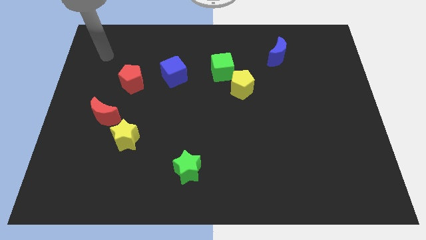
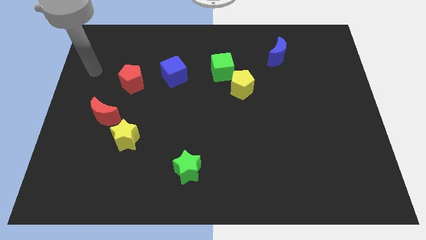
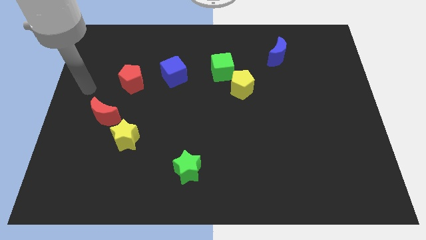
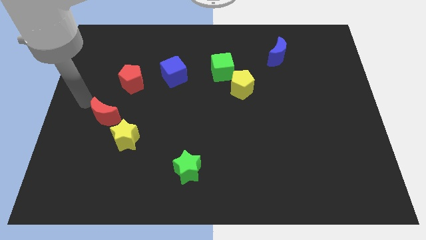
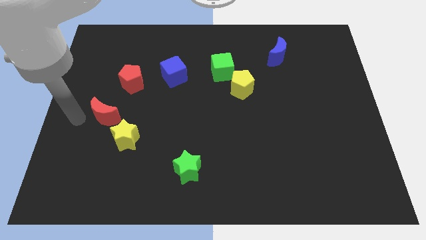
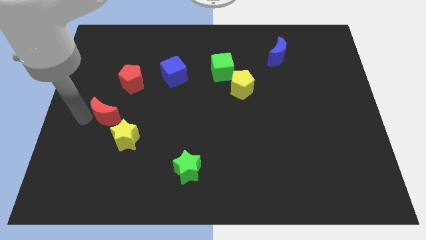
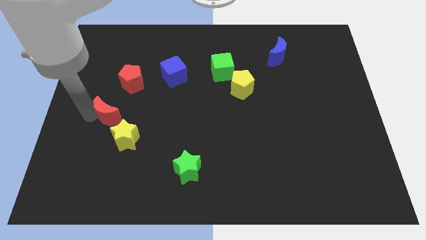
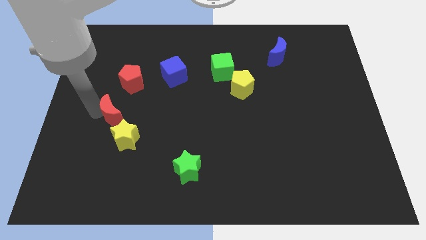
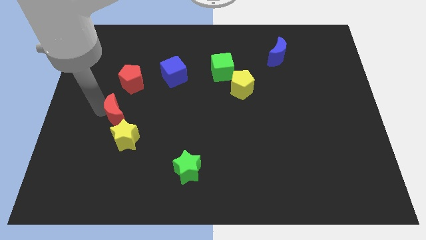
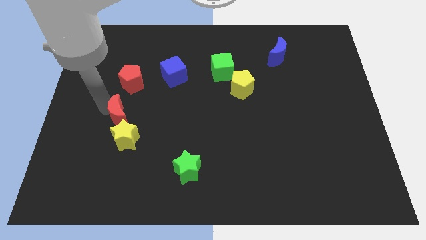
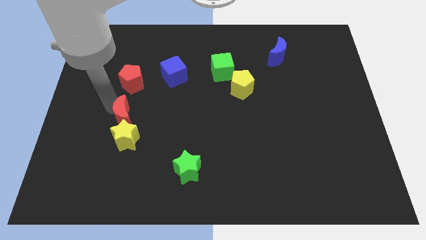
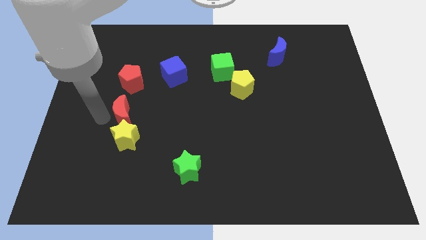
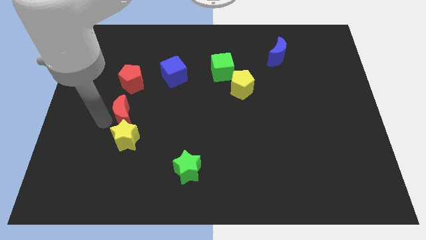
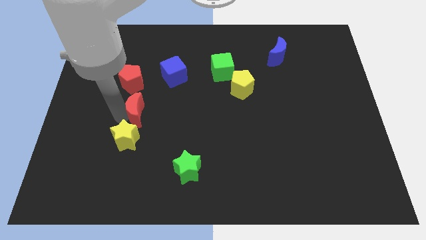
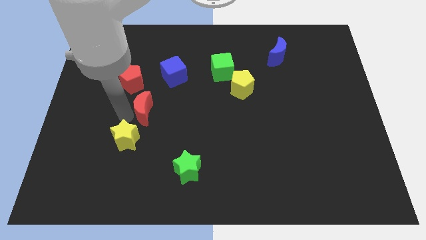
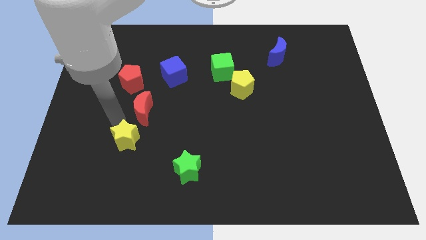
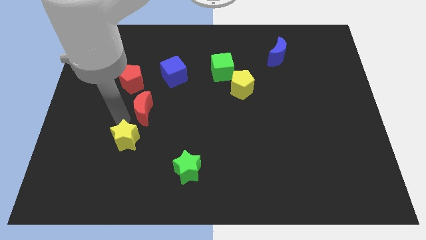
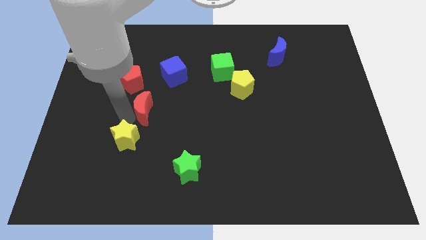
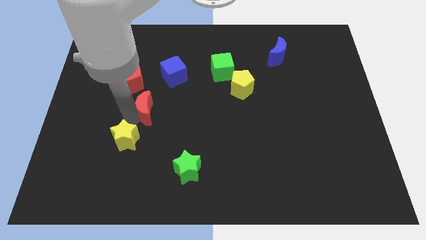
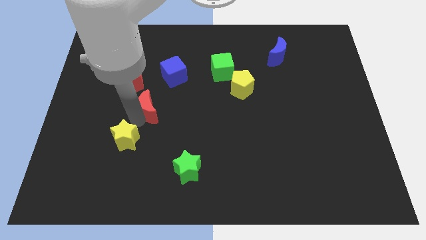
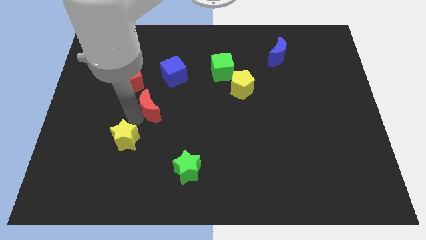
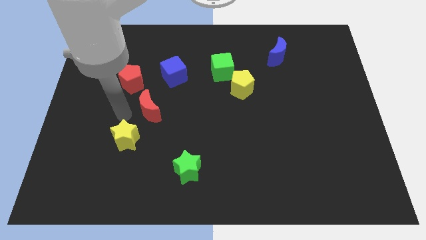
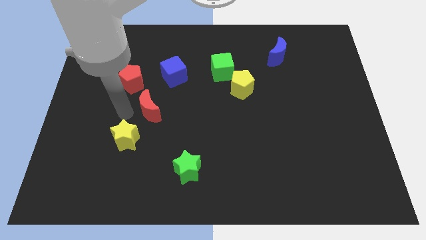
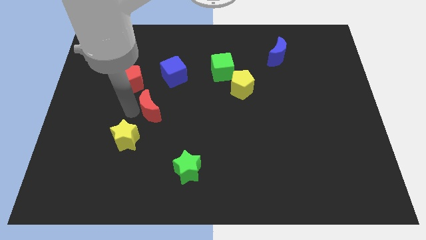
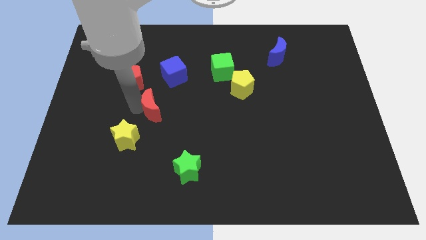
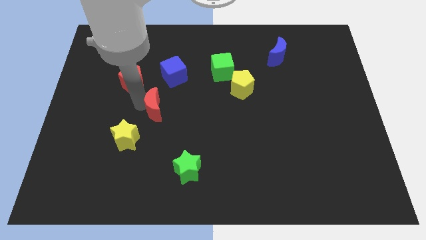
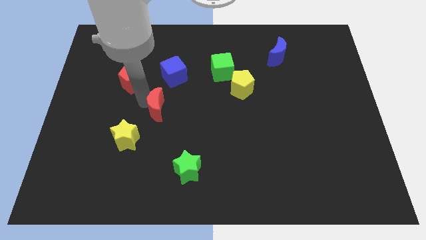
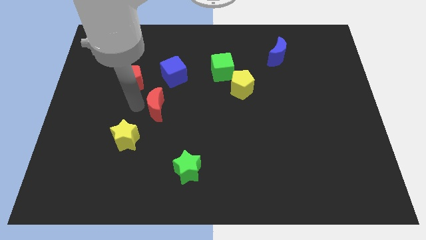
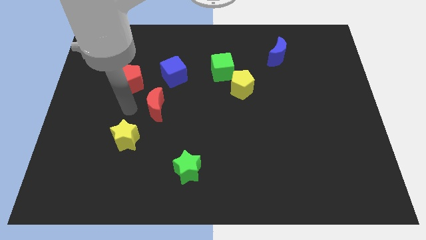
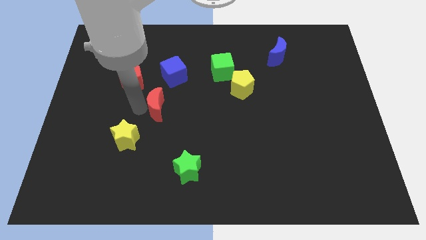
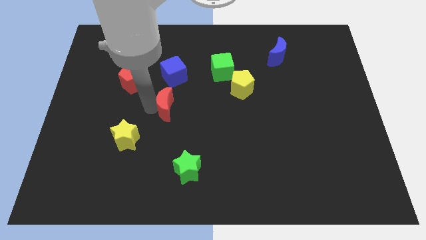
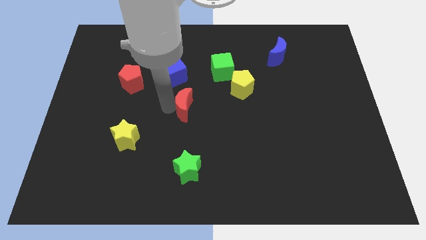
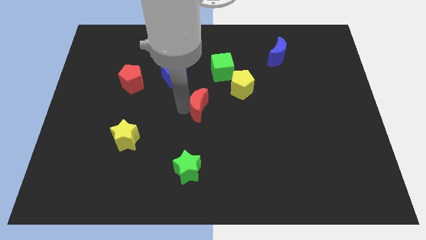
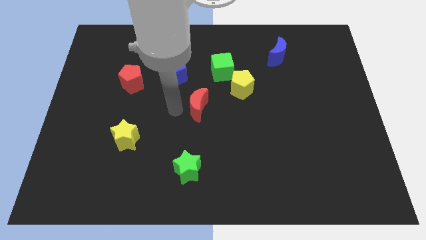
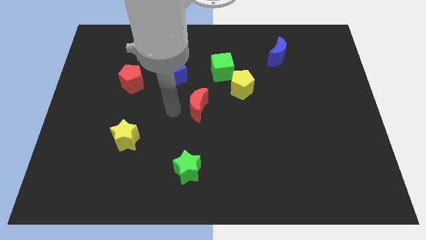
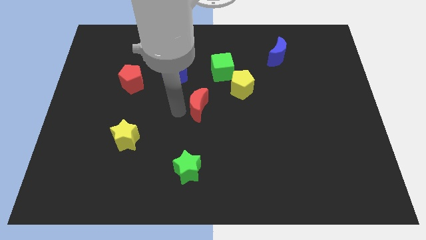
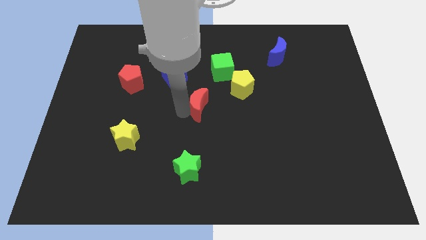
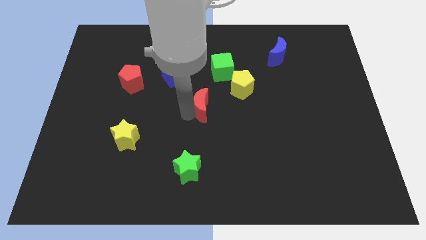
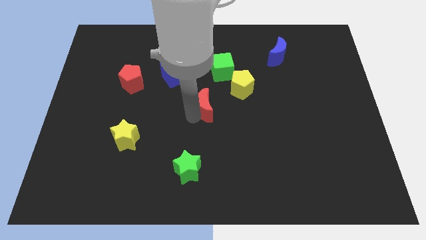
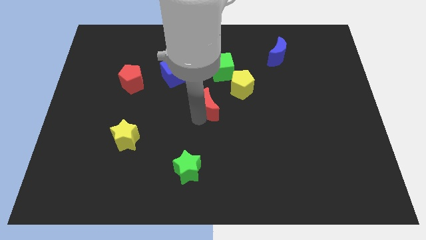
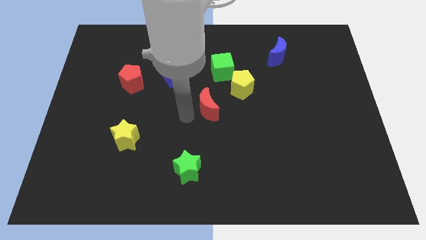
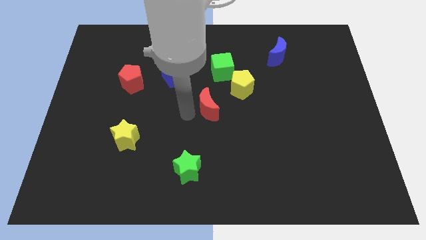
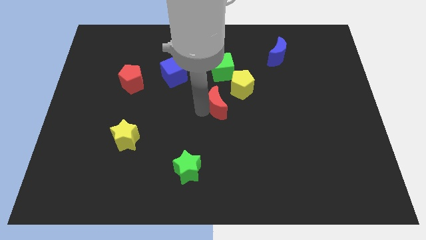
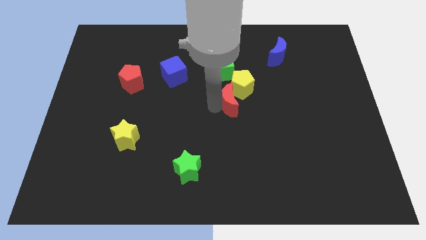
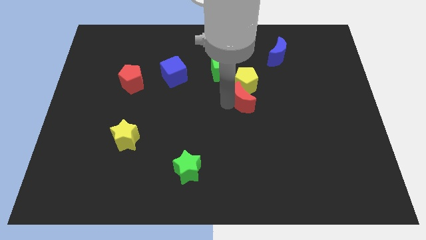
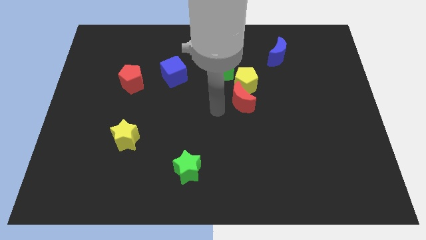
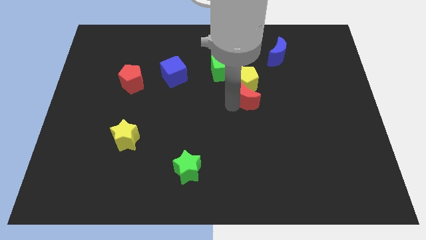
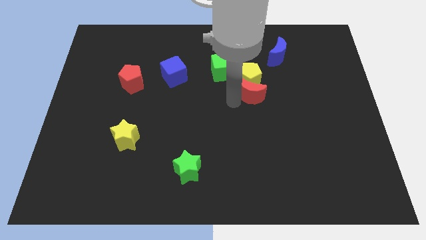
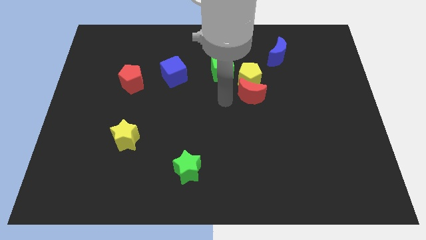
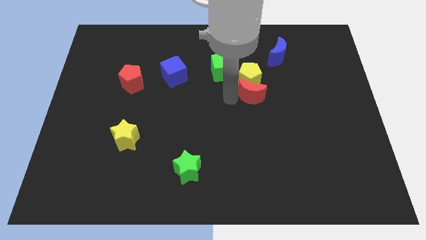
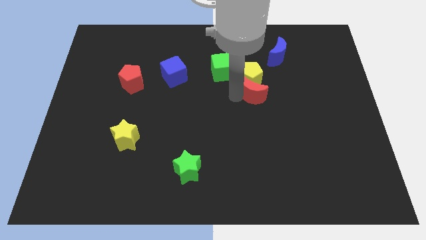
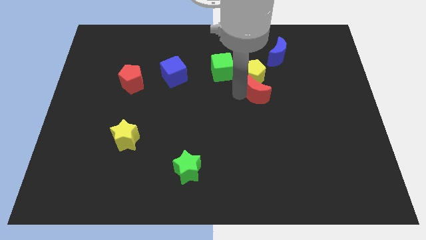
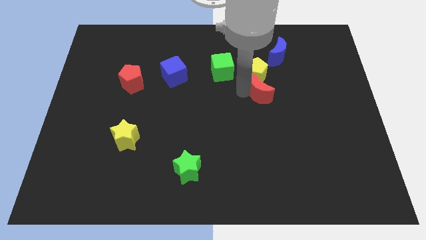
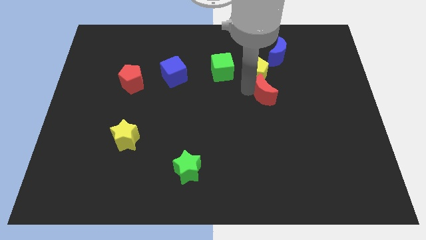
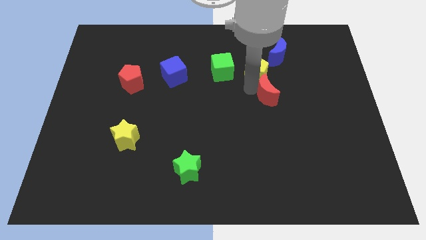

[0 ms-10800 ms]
slide the red moon below the blue moon

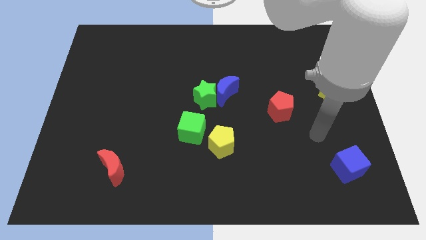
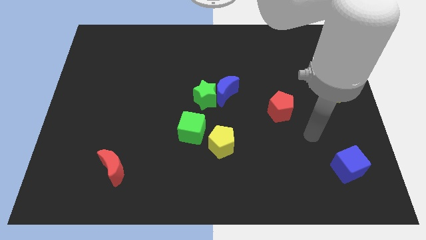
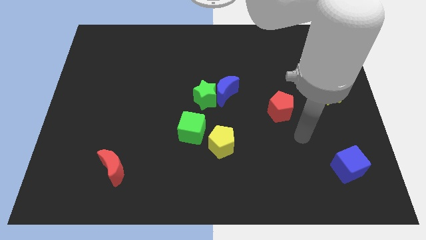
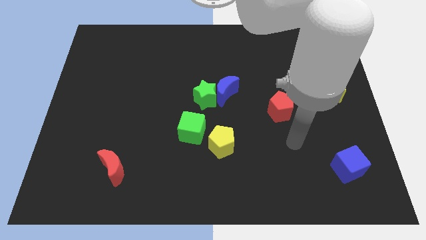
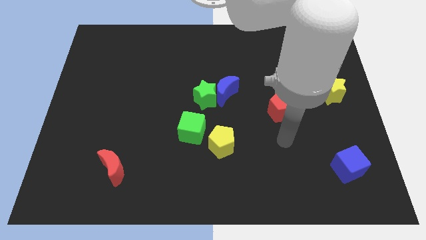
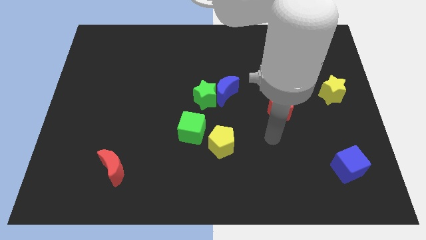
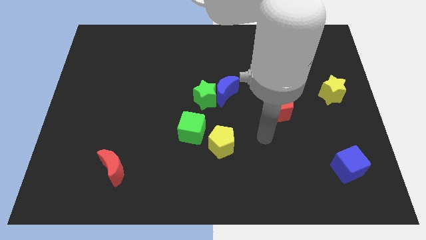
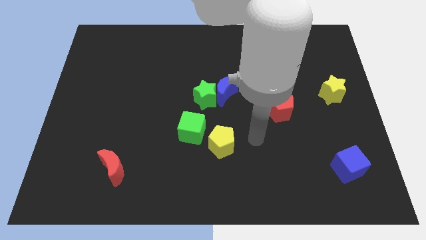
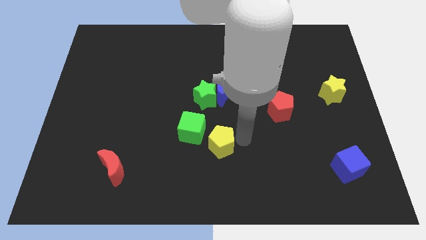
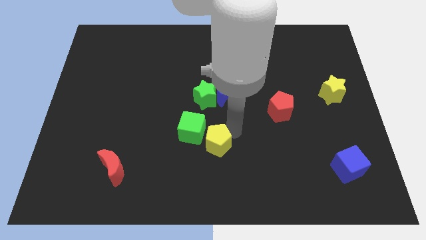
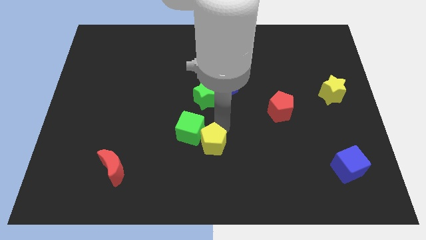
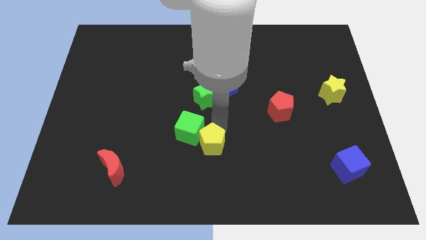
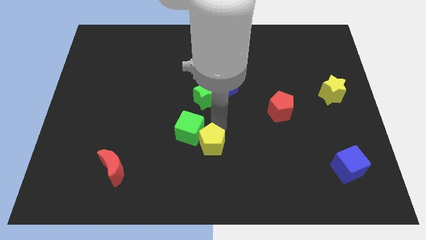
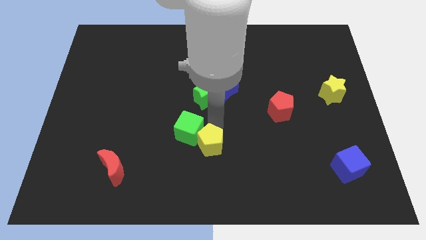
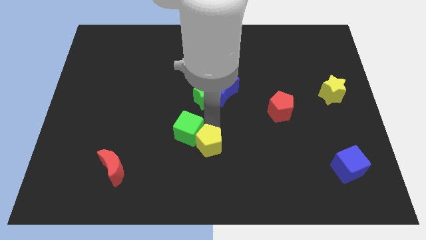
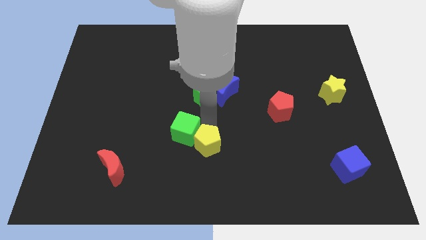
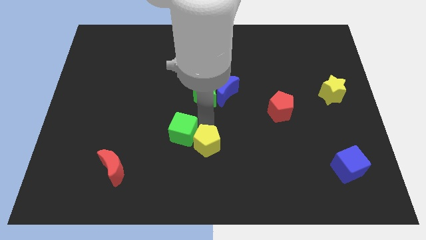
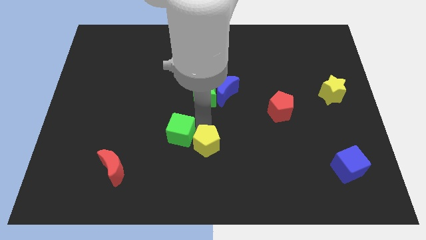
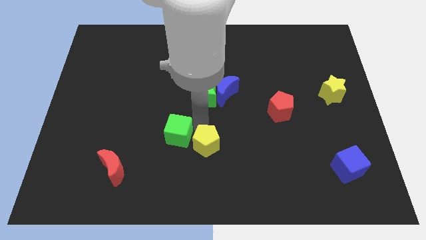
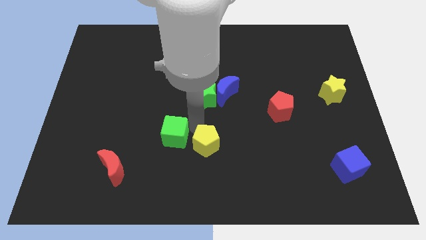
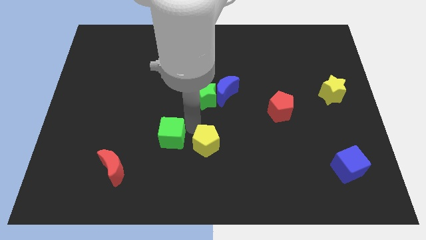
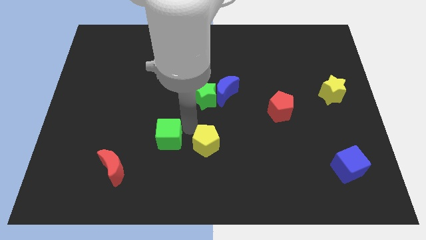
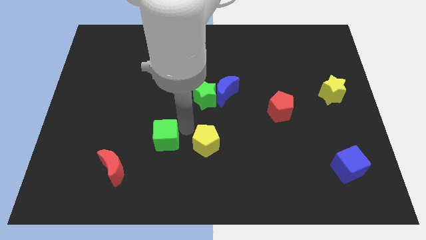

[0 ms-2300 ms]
put the green cube diagonally up and to the right of the red moon
